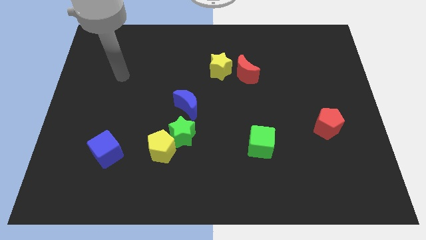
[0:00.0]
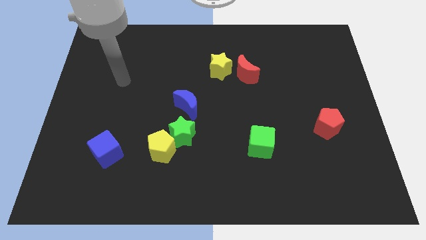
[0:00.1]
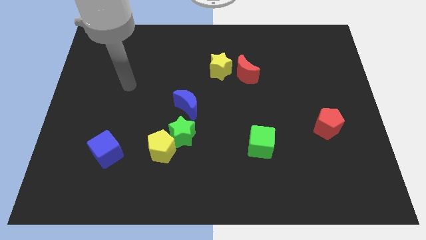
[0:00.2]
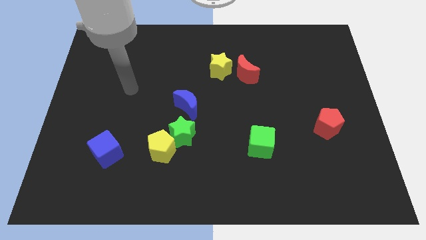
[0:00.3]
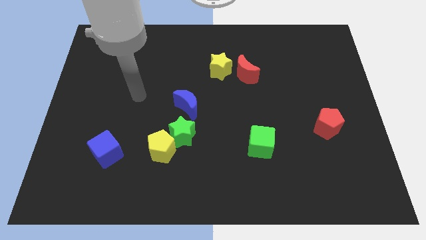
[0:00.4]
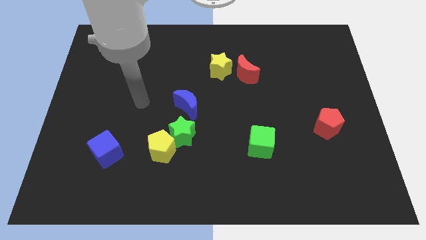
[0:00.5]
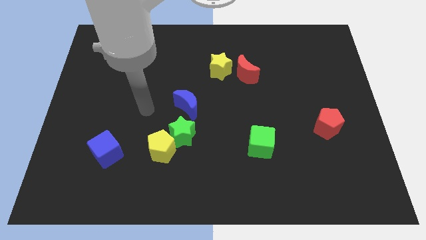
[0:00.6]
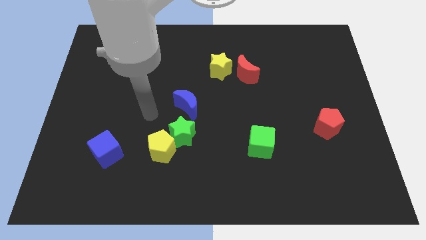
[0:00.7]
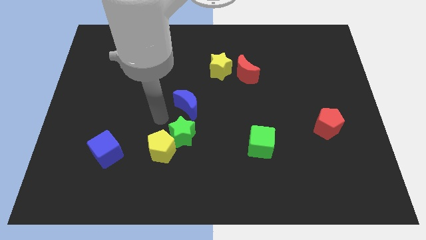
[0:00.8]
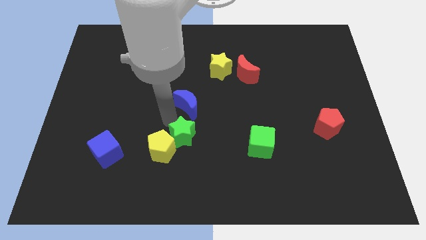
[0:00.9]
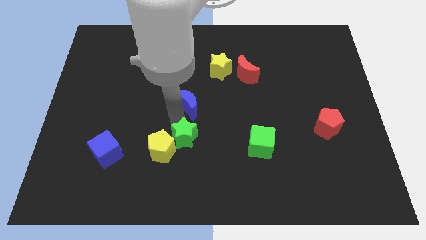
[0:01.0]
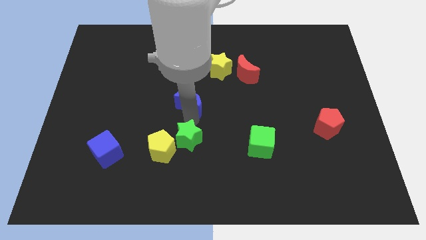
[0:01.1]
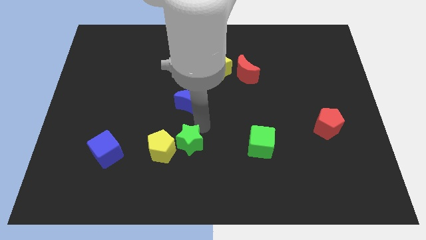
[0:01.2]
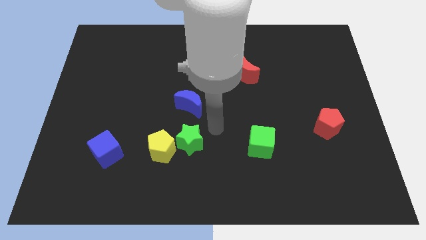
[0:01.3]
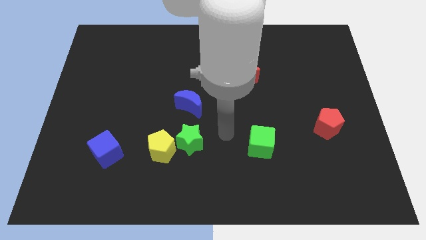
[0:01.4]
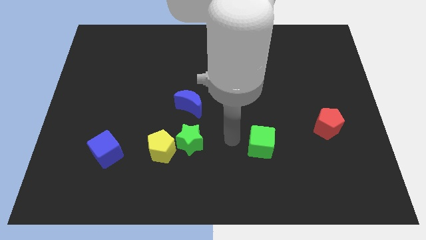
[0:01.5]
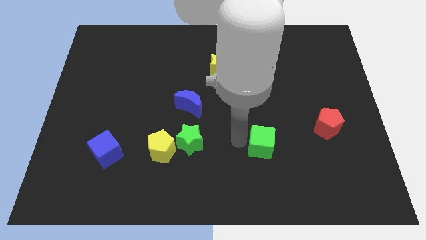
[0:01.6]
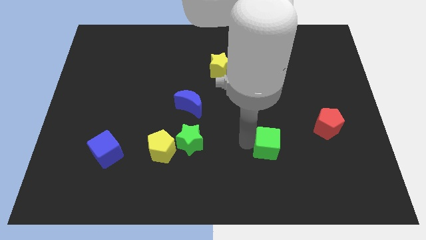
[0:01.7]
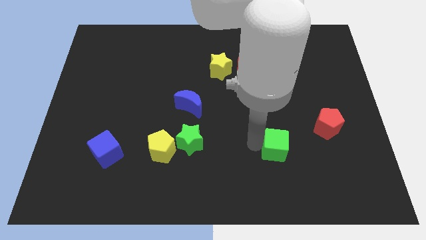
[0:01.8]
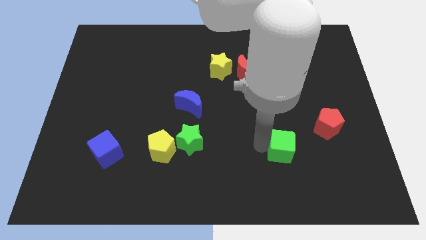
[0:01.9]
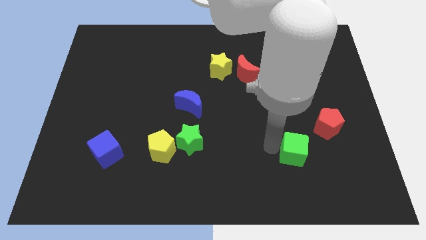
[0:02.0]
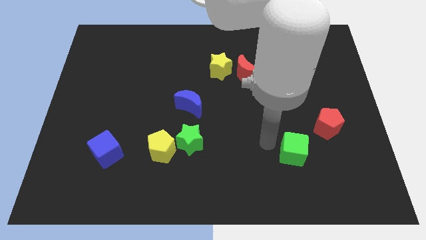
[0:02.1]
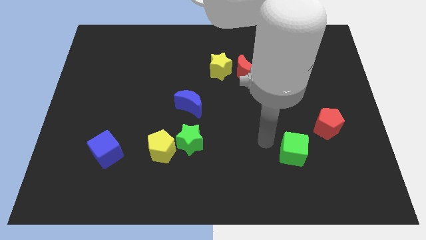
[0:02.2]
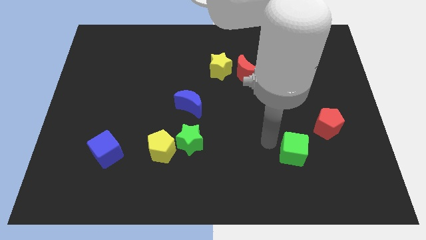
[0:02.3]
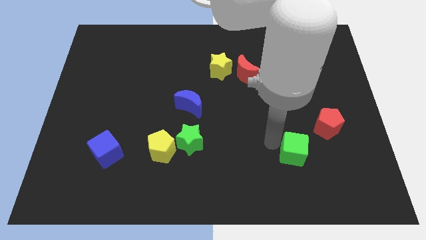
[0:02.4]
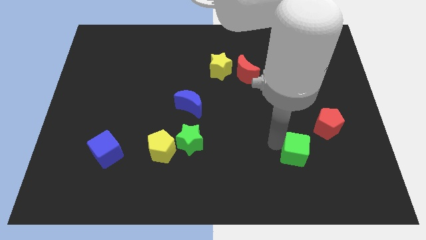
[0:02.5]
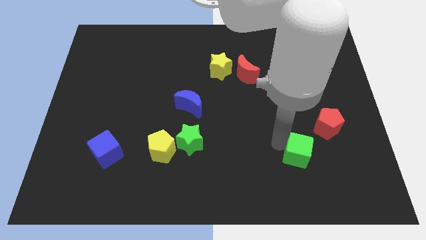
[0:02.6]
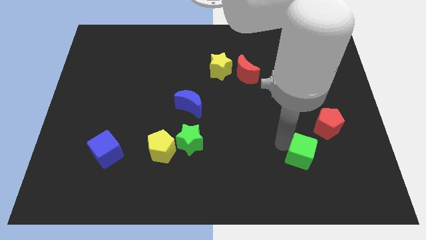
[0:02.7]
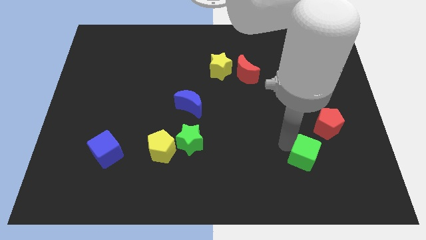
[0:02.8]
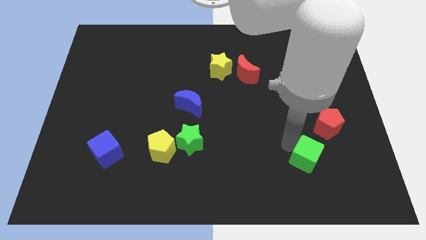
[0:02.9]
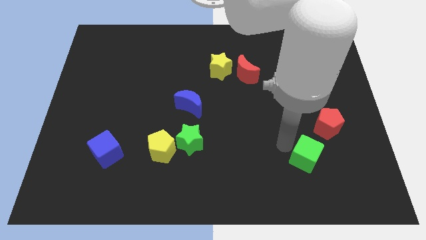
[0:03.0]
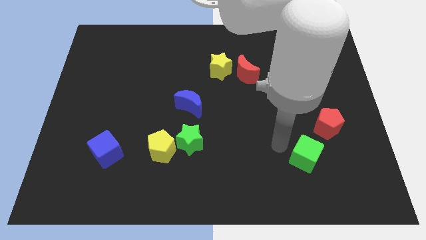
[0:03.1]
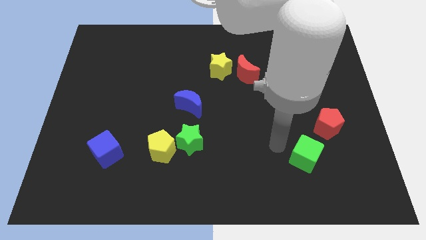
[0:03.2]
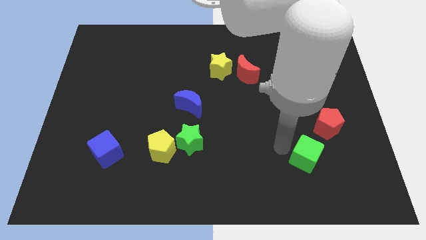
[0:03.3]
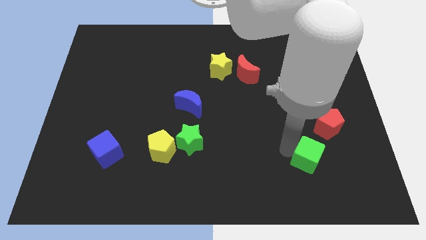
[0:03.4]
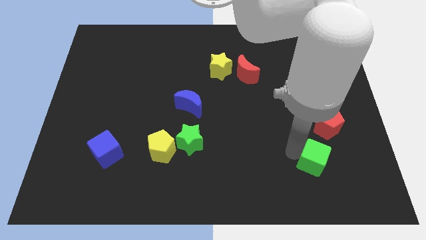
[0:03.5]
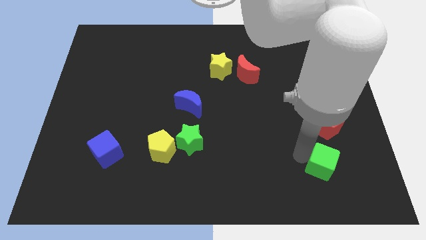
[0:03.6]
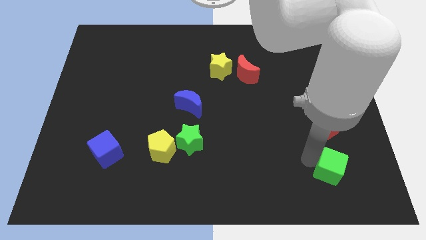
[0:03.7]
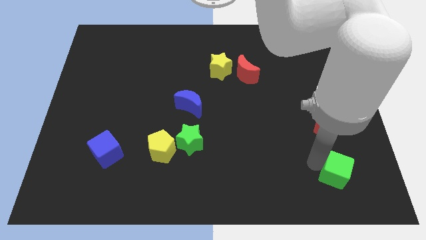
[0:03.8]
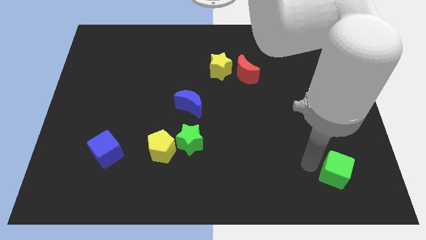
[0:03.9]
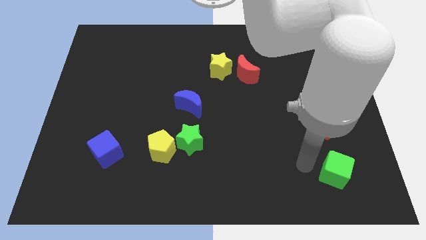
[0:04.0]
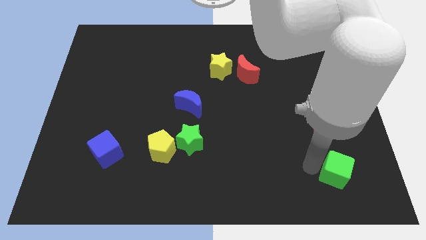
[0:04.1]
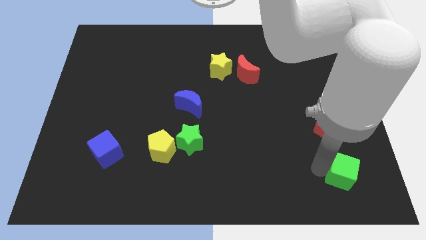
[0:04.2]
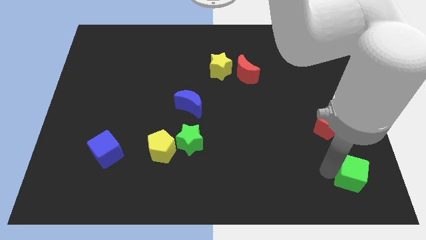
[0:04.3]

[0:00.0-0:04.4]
slide the green cube to the bottom right

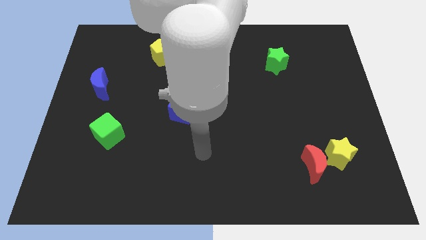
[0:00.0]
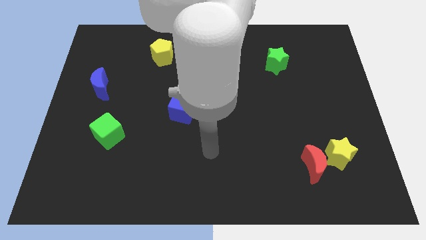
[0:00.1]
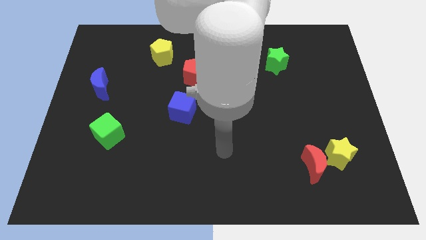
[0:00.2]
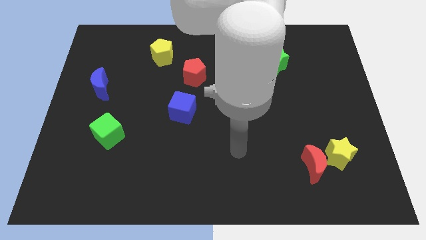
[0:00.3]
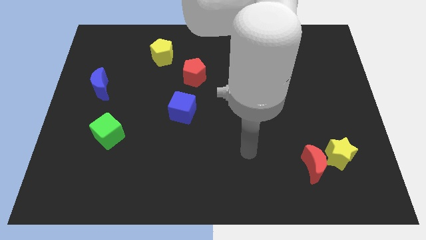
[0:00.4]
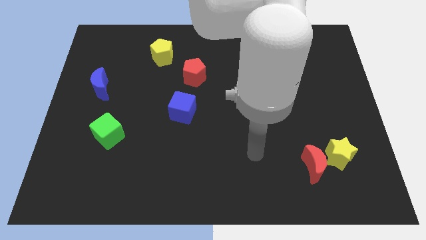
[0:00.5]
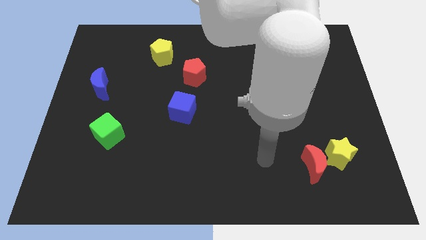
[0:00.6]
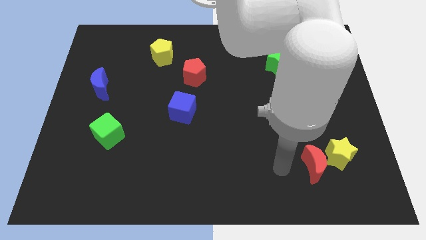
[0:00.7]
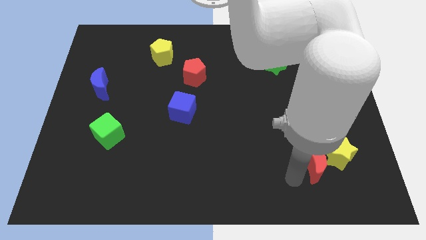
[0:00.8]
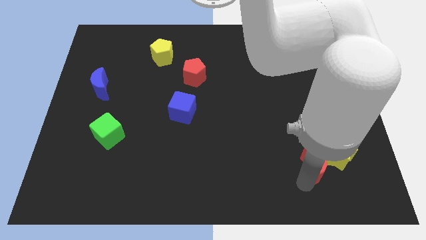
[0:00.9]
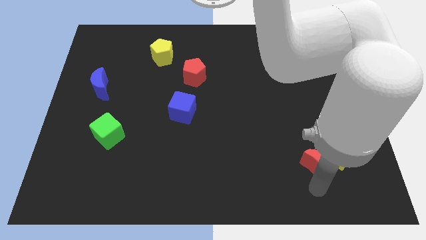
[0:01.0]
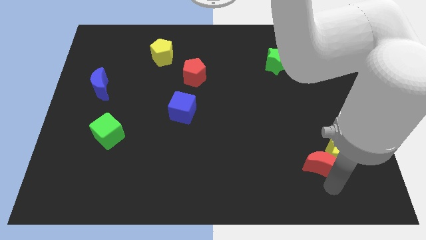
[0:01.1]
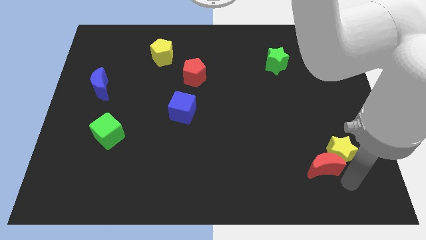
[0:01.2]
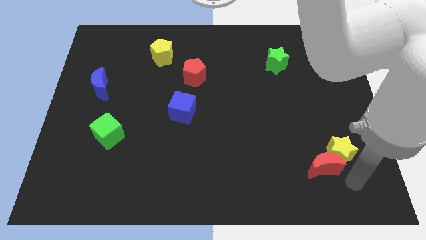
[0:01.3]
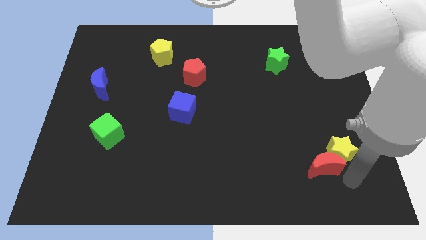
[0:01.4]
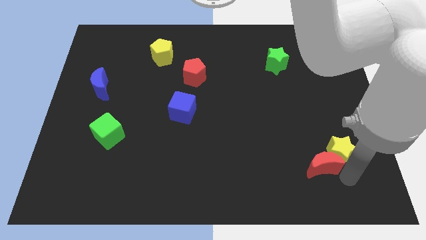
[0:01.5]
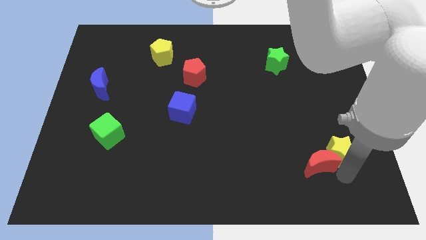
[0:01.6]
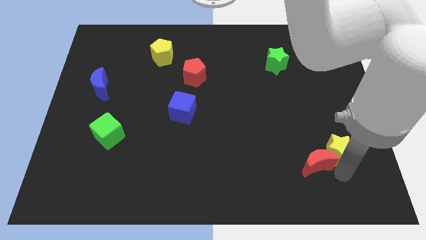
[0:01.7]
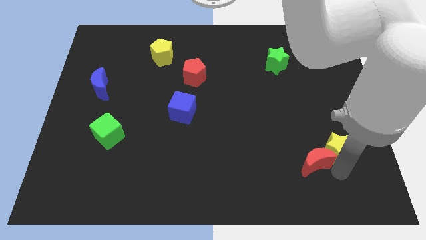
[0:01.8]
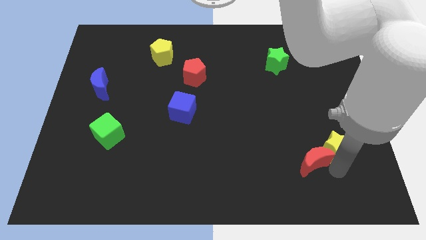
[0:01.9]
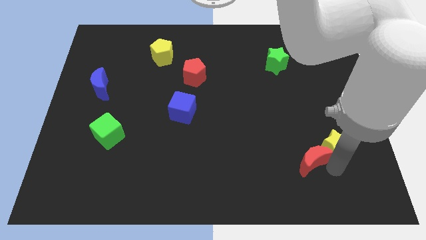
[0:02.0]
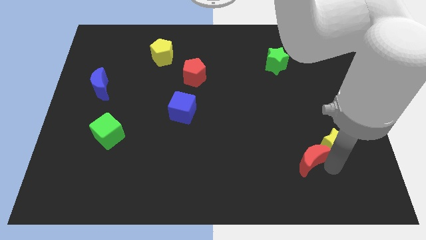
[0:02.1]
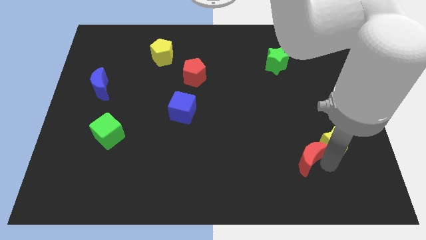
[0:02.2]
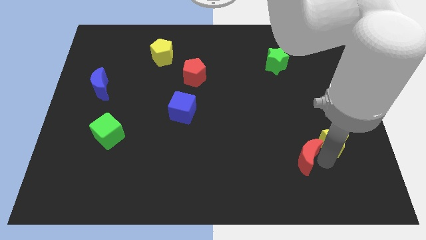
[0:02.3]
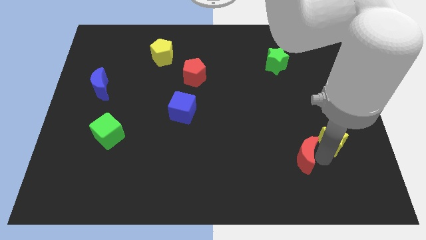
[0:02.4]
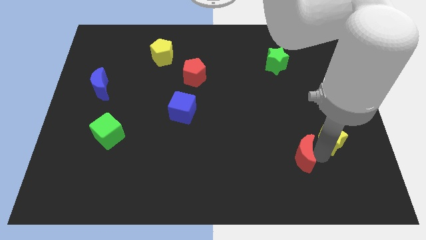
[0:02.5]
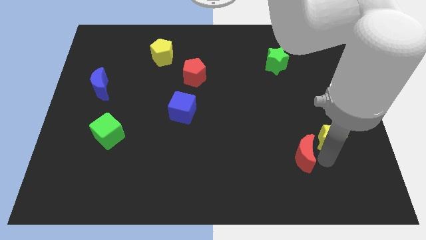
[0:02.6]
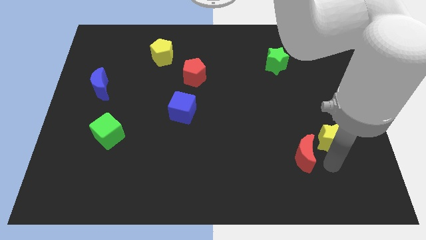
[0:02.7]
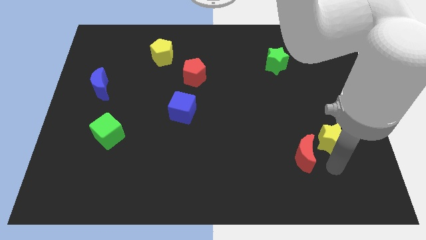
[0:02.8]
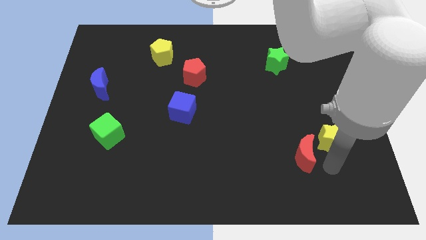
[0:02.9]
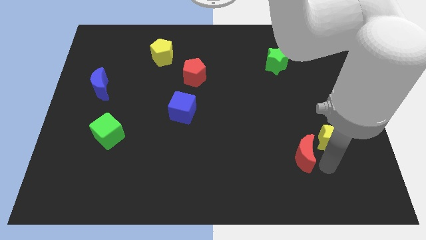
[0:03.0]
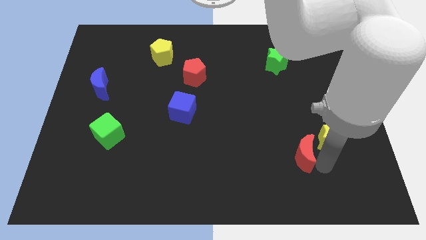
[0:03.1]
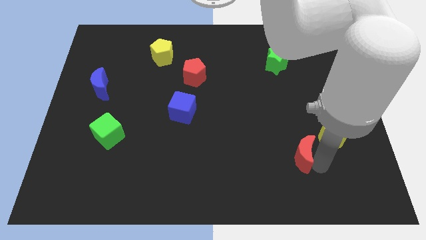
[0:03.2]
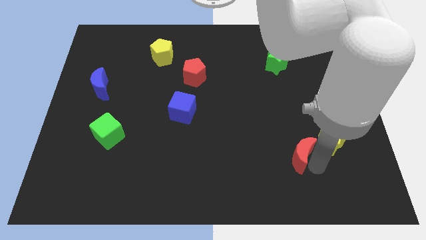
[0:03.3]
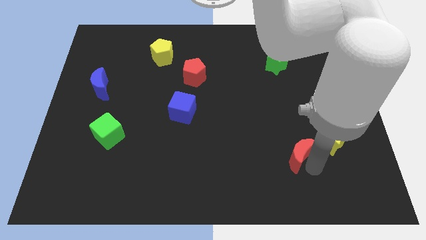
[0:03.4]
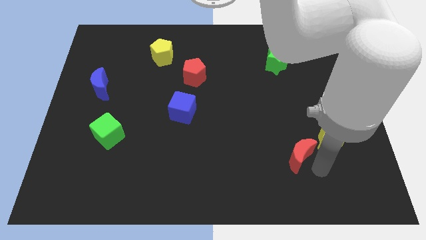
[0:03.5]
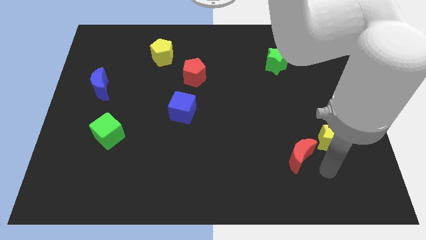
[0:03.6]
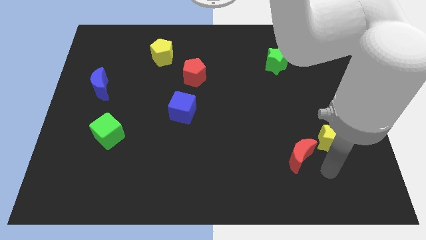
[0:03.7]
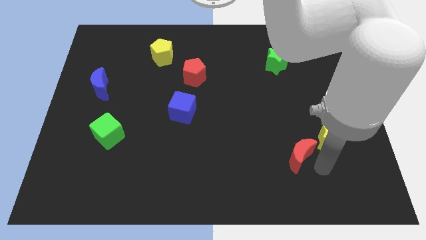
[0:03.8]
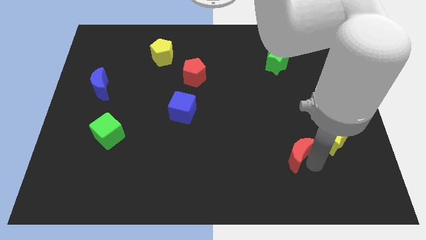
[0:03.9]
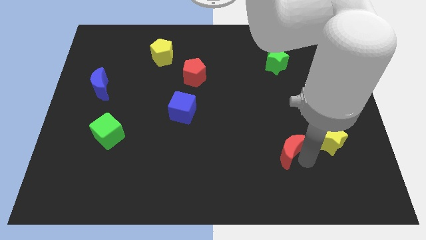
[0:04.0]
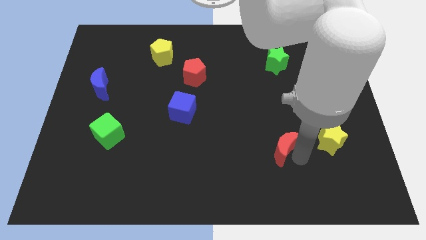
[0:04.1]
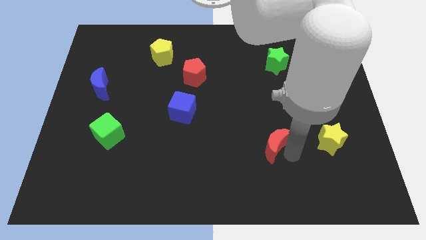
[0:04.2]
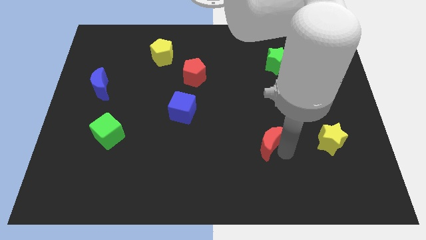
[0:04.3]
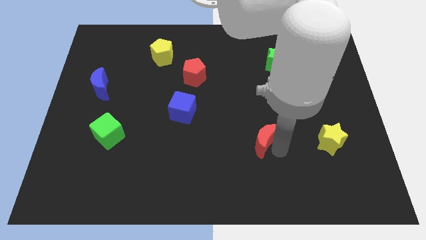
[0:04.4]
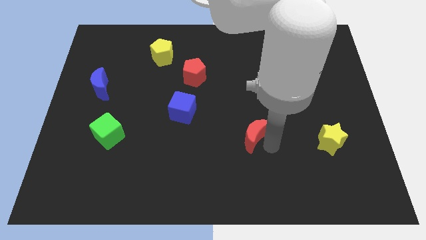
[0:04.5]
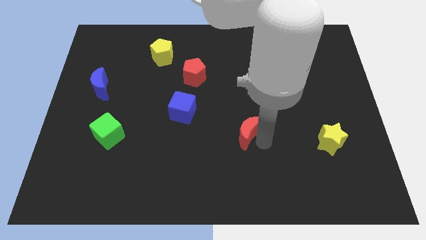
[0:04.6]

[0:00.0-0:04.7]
put the red moon to the middle
